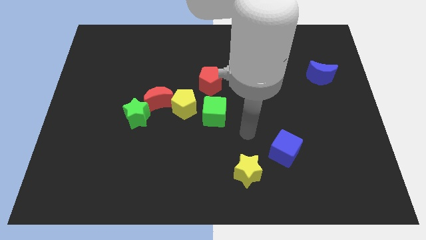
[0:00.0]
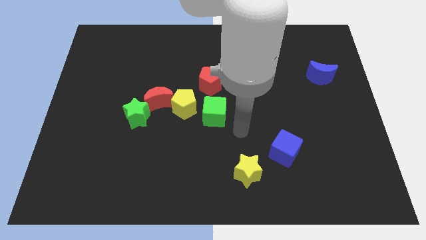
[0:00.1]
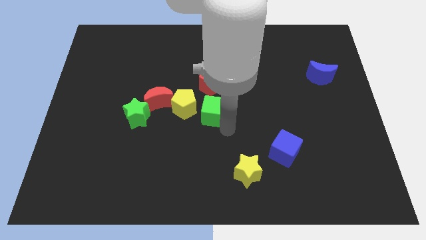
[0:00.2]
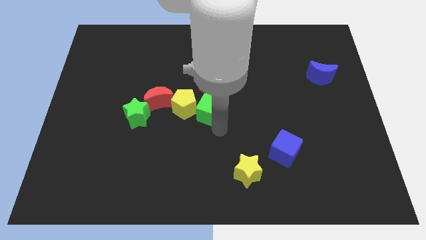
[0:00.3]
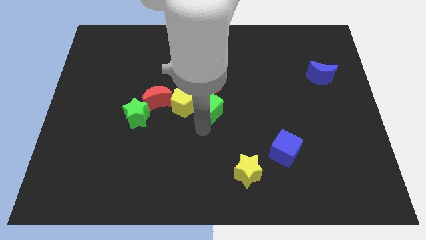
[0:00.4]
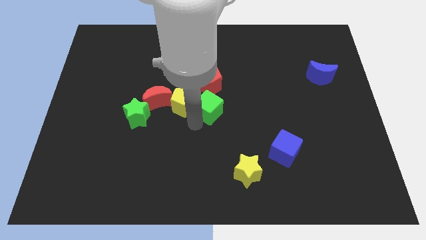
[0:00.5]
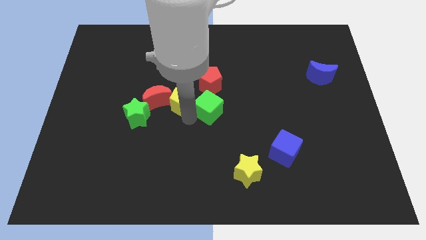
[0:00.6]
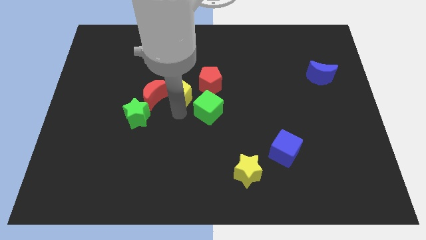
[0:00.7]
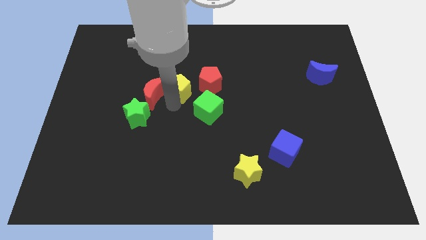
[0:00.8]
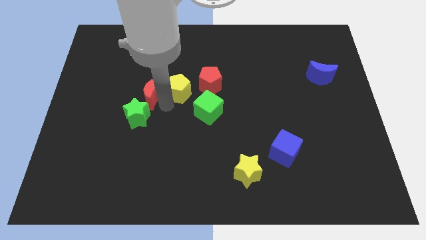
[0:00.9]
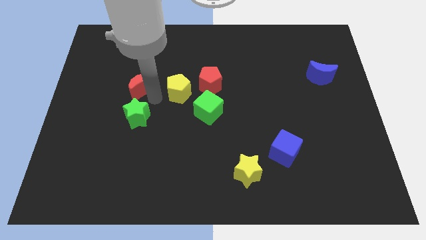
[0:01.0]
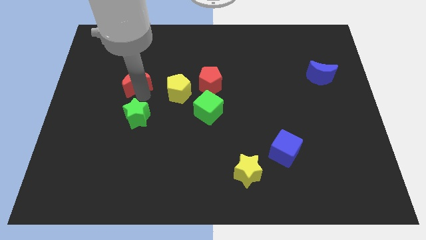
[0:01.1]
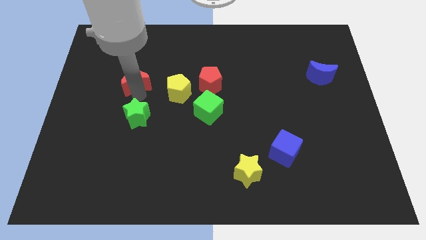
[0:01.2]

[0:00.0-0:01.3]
pull the green star apart from the red moon

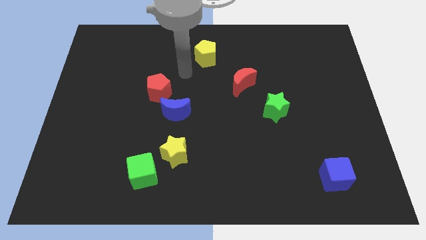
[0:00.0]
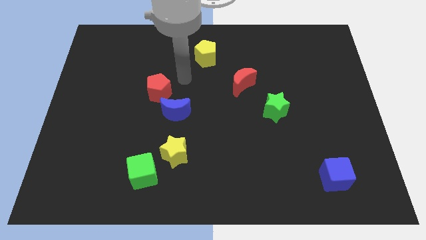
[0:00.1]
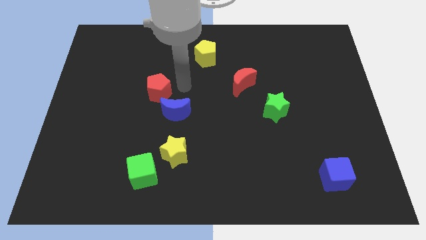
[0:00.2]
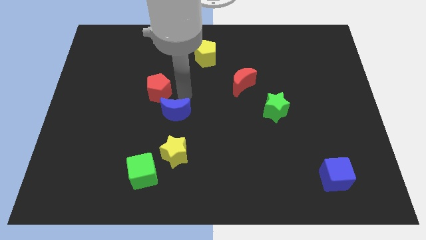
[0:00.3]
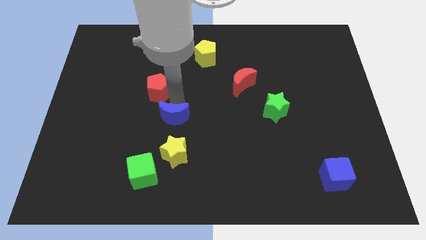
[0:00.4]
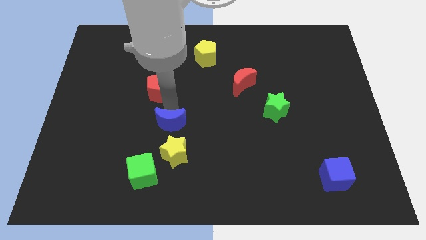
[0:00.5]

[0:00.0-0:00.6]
separate the red pentagon from the blue moon

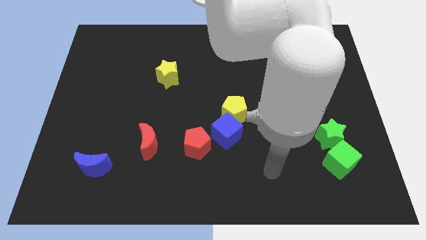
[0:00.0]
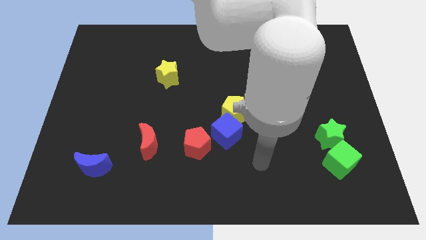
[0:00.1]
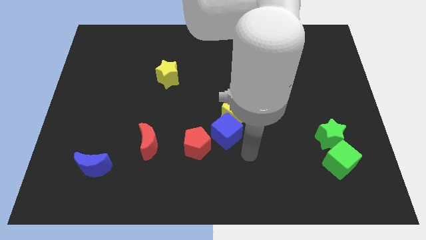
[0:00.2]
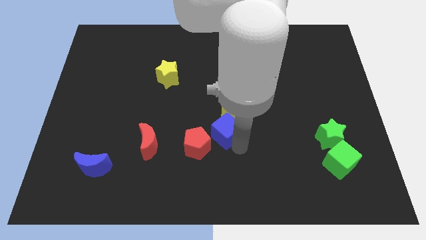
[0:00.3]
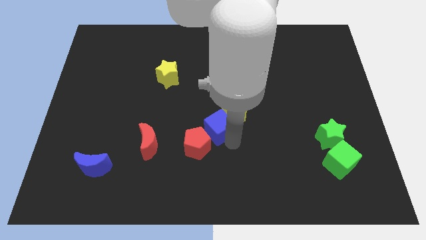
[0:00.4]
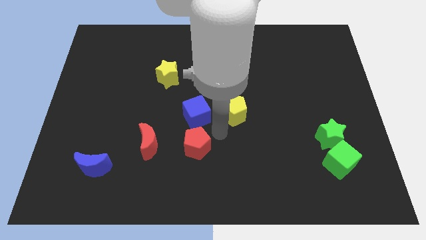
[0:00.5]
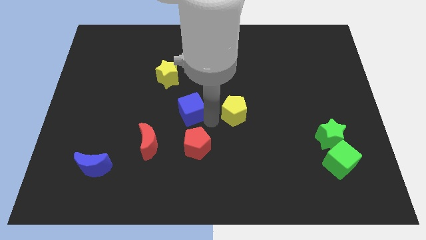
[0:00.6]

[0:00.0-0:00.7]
move the yellow pentagon away from the blue cube

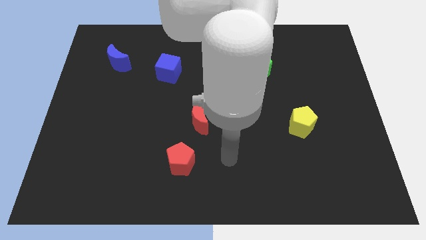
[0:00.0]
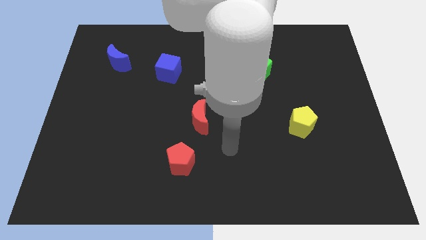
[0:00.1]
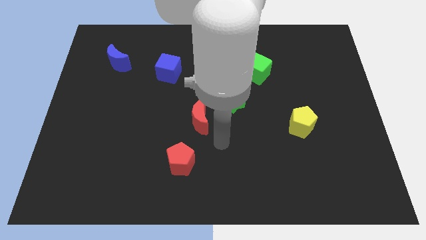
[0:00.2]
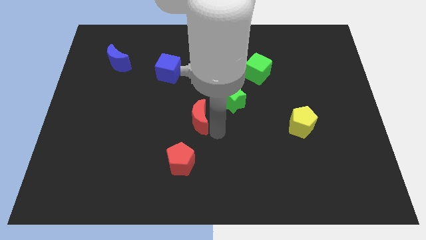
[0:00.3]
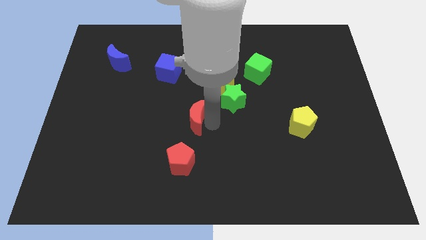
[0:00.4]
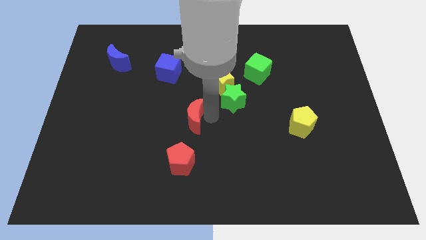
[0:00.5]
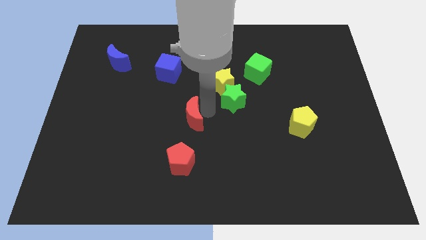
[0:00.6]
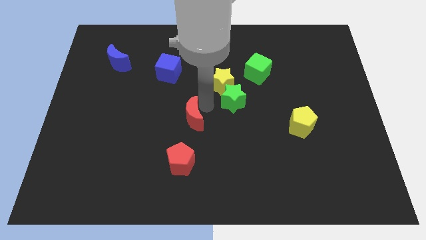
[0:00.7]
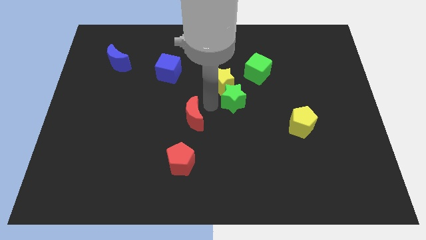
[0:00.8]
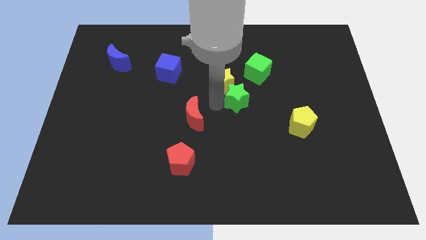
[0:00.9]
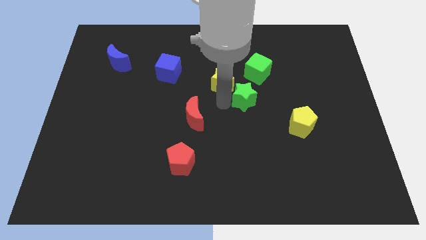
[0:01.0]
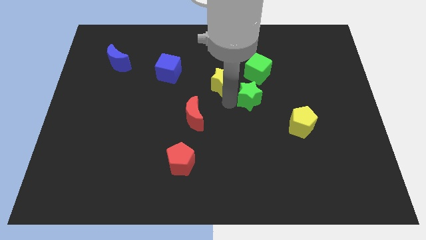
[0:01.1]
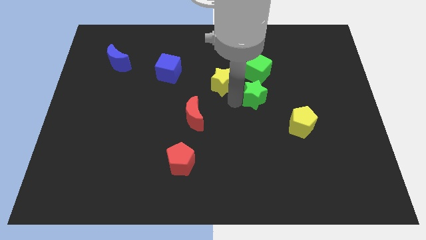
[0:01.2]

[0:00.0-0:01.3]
separate the green star from the yellow star and red moon

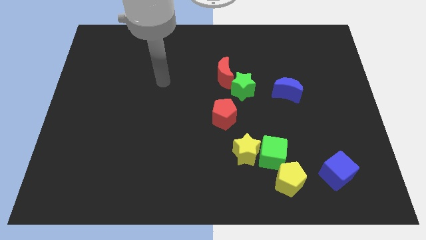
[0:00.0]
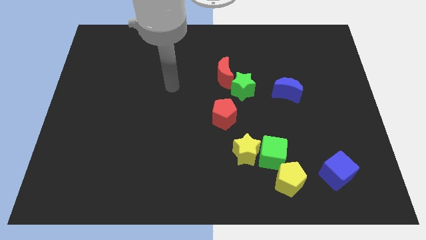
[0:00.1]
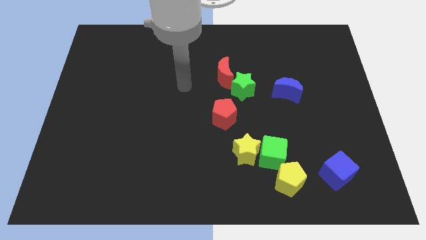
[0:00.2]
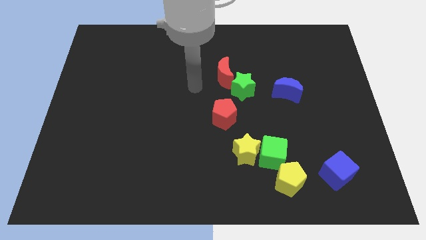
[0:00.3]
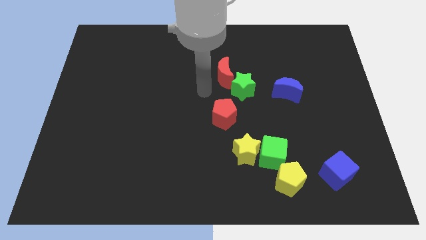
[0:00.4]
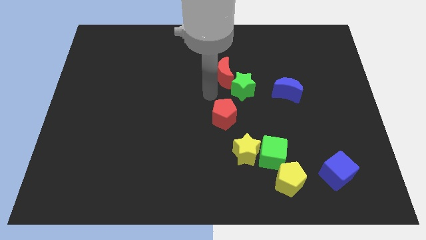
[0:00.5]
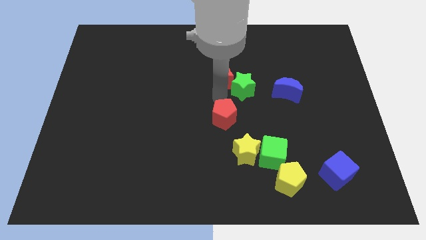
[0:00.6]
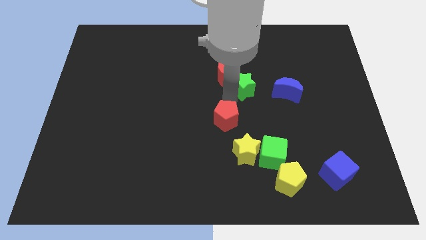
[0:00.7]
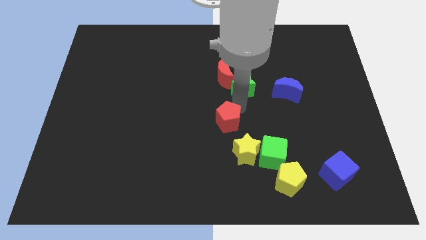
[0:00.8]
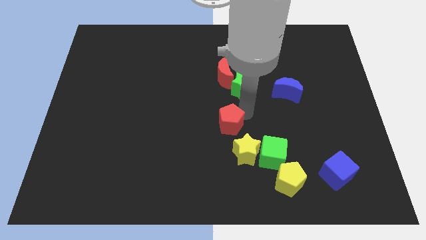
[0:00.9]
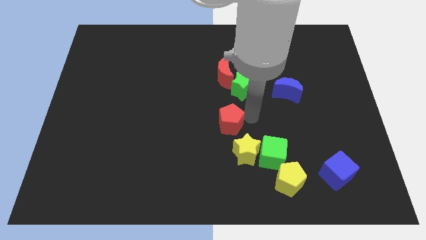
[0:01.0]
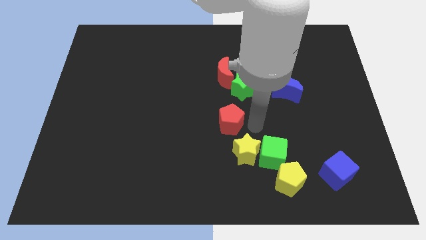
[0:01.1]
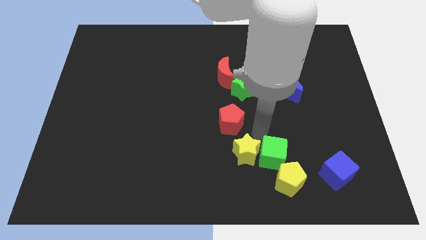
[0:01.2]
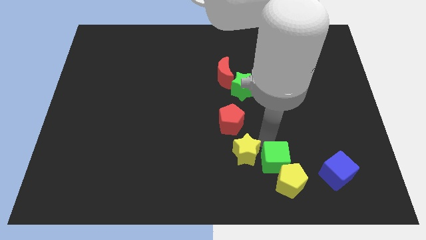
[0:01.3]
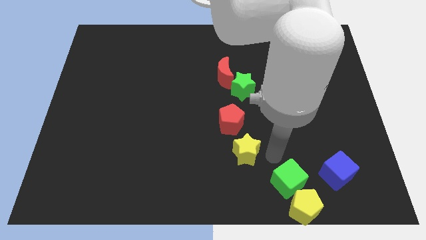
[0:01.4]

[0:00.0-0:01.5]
separate the yellow star from the green cube

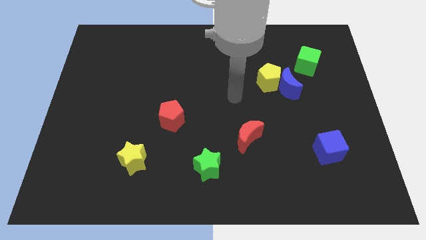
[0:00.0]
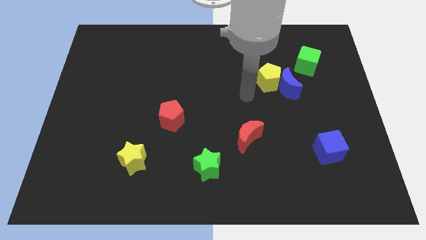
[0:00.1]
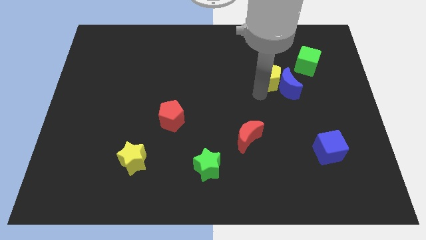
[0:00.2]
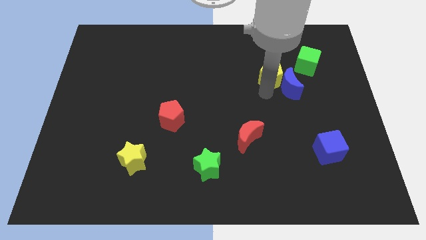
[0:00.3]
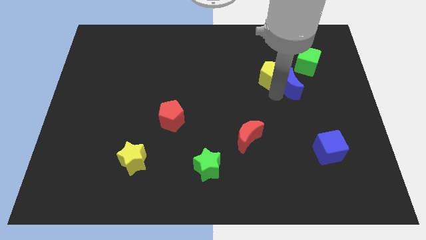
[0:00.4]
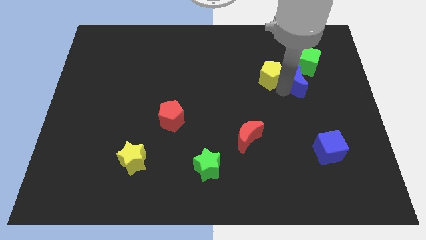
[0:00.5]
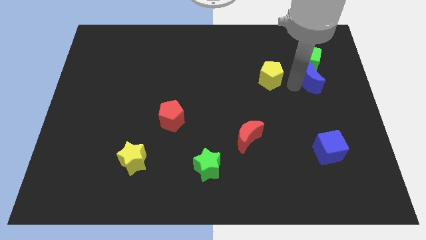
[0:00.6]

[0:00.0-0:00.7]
pull the yellow pentagon apart from the blue moon

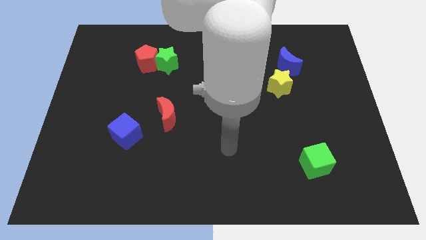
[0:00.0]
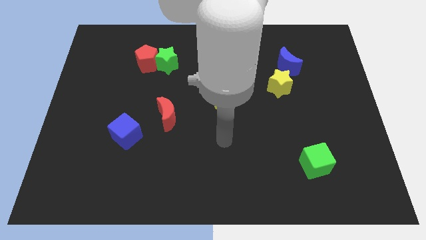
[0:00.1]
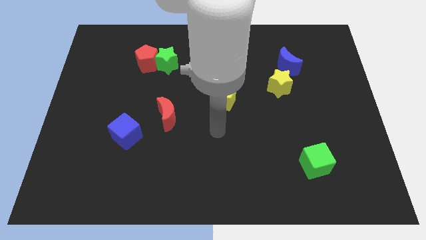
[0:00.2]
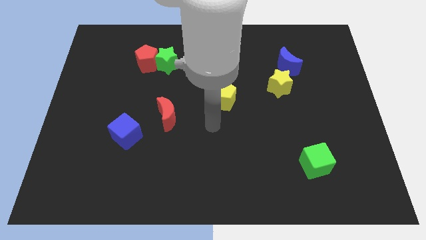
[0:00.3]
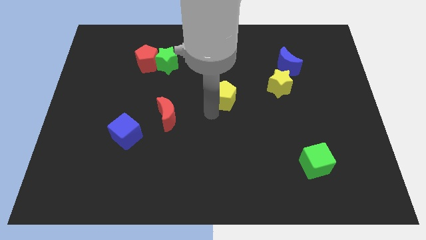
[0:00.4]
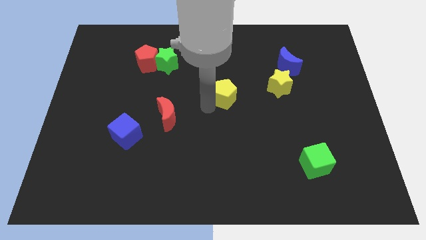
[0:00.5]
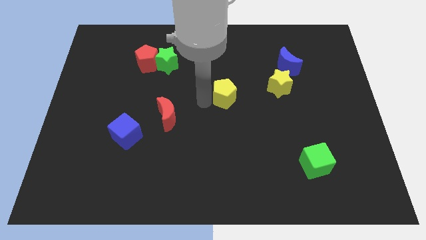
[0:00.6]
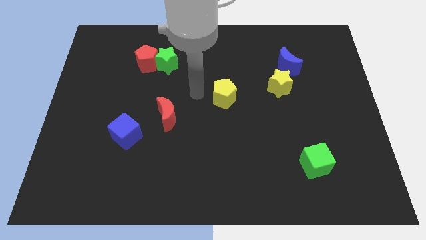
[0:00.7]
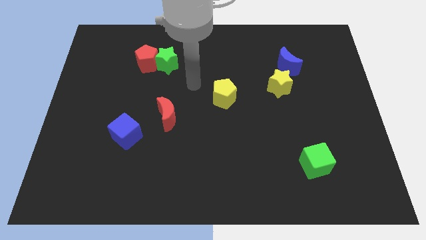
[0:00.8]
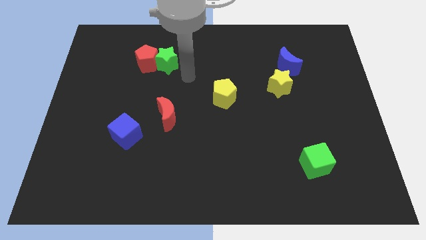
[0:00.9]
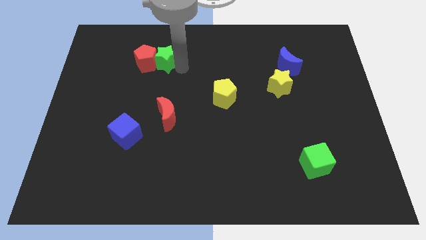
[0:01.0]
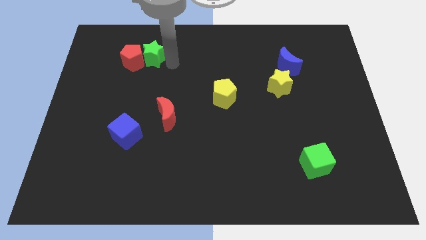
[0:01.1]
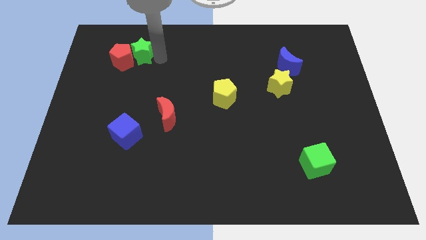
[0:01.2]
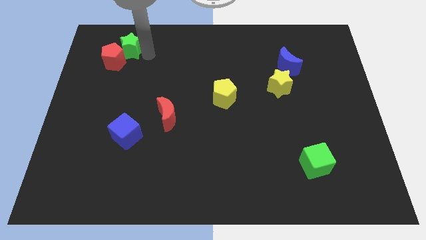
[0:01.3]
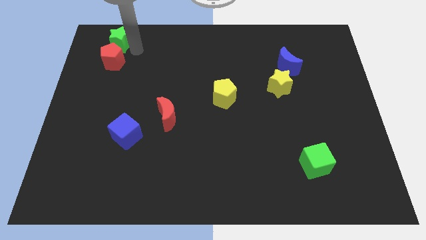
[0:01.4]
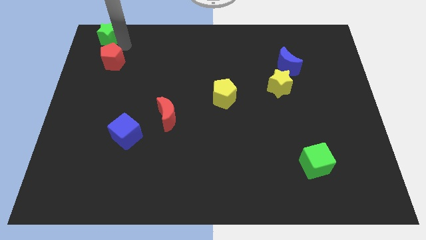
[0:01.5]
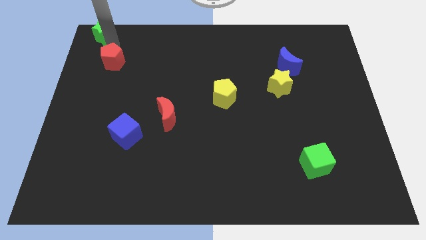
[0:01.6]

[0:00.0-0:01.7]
pull the red pentagon apart from the green star

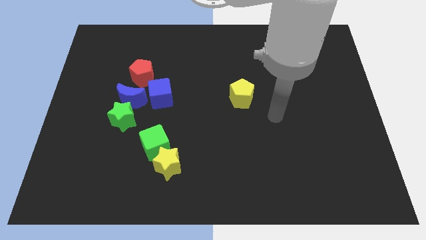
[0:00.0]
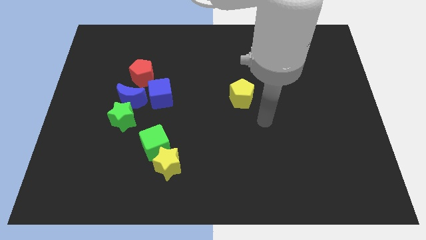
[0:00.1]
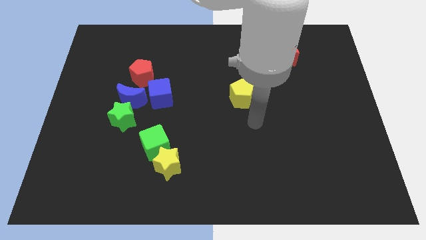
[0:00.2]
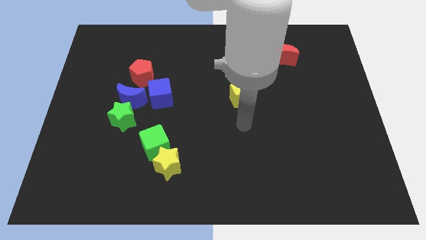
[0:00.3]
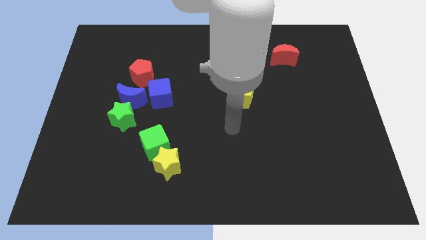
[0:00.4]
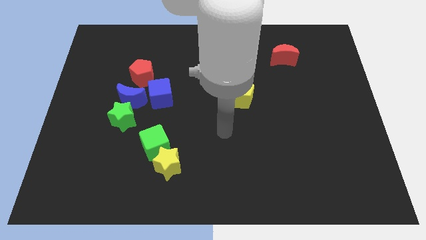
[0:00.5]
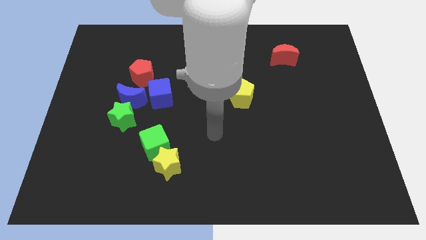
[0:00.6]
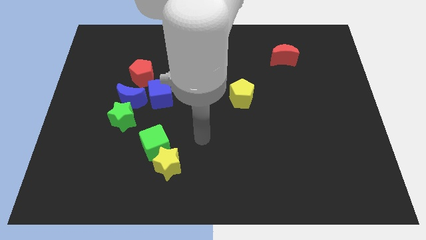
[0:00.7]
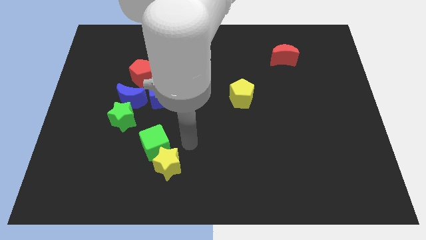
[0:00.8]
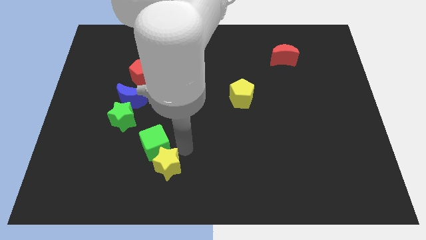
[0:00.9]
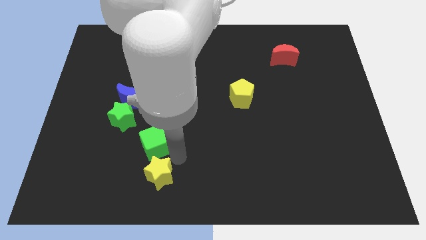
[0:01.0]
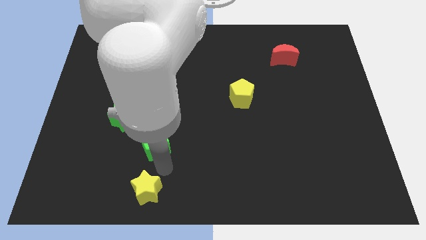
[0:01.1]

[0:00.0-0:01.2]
pull the green cube apart from the yellow star

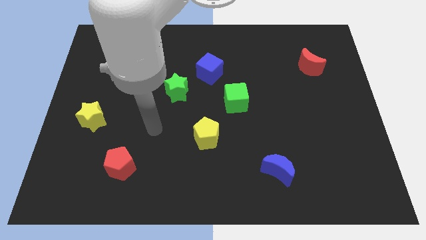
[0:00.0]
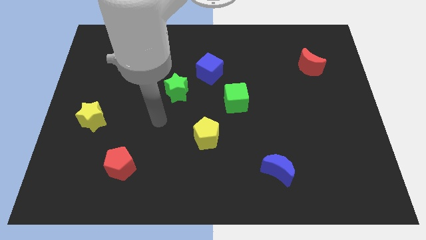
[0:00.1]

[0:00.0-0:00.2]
move the blue cube away from the green star
